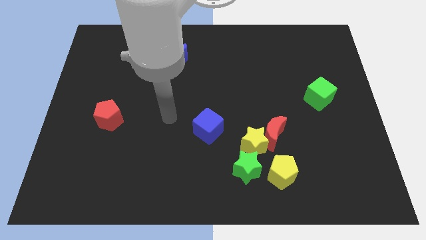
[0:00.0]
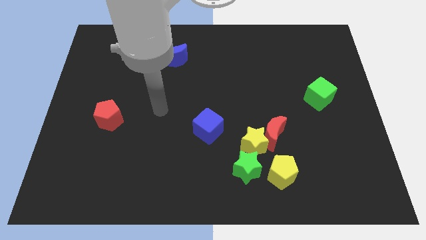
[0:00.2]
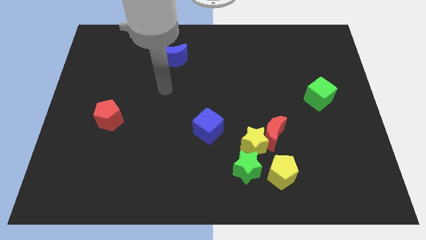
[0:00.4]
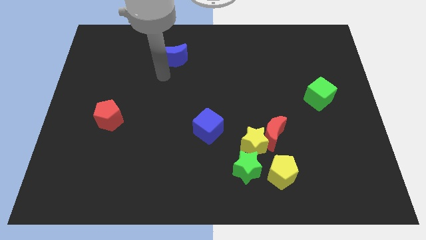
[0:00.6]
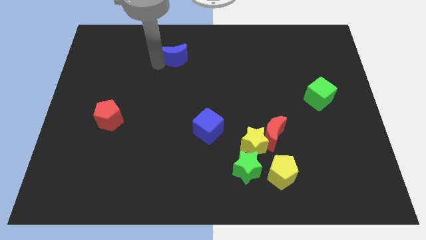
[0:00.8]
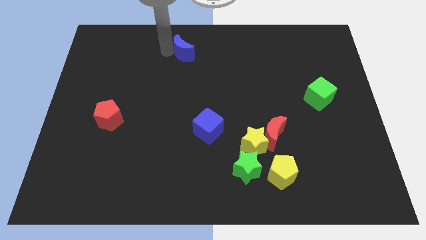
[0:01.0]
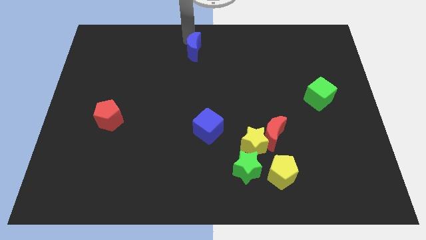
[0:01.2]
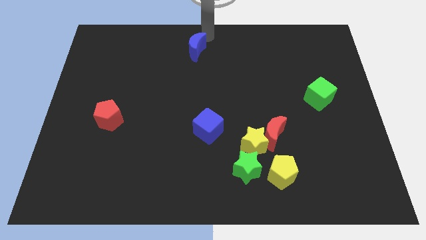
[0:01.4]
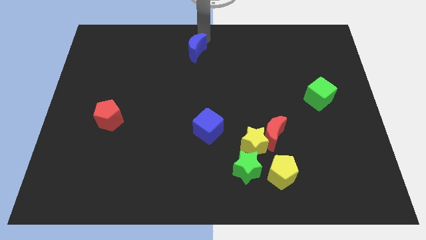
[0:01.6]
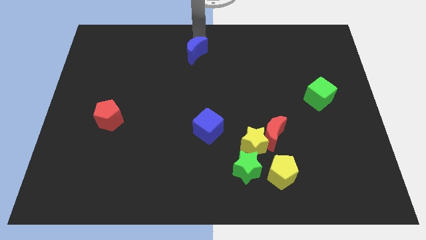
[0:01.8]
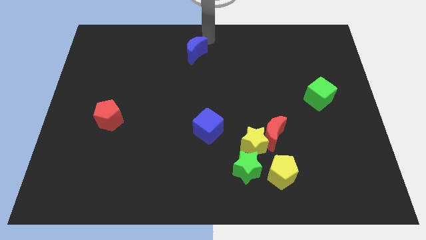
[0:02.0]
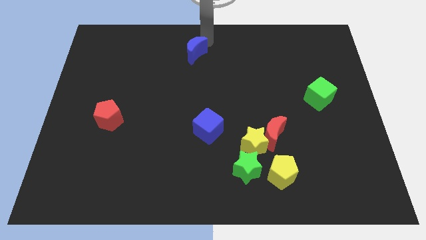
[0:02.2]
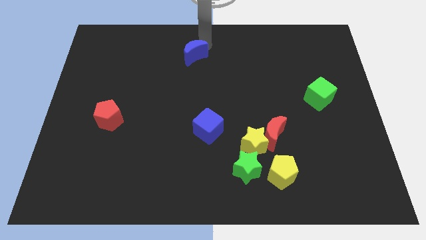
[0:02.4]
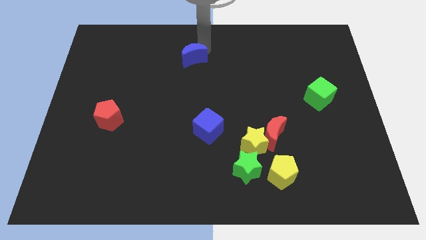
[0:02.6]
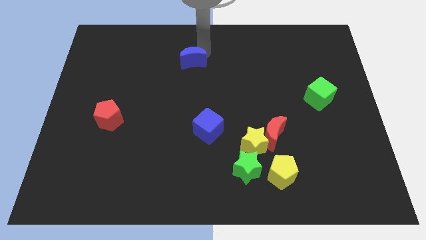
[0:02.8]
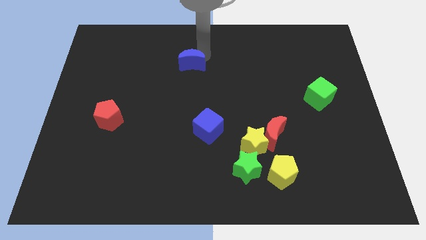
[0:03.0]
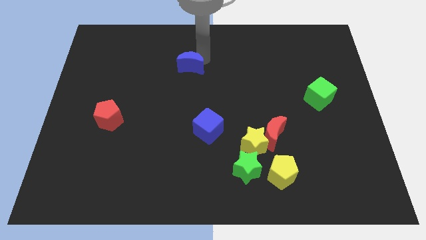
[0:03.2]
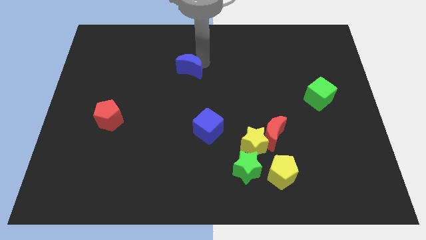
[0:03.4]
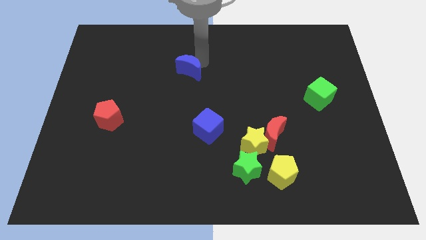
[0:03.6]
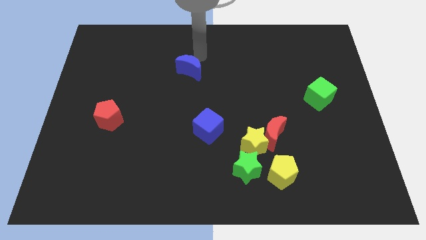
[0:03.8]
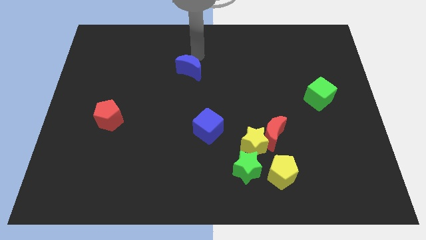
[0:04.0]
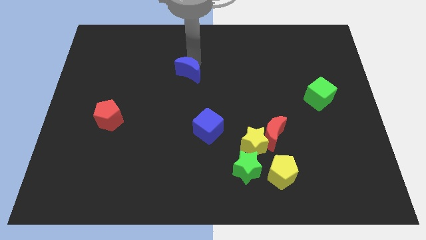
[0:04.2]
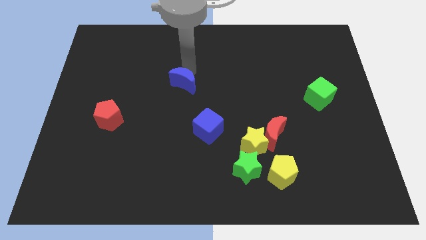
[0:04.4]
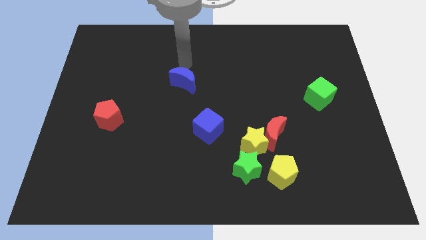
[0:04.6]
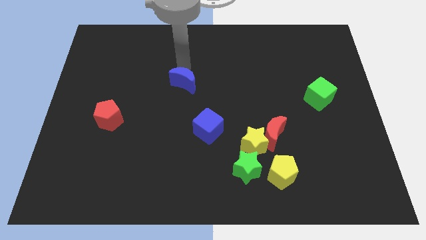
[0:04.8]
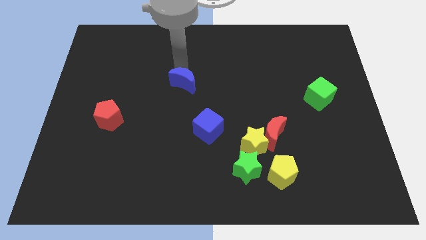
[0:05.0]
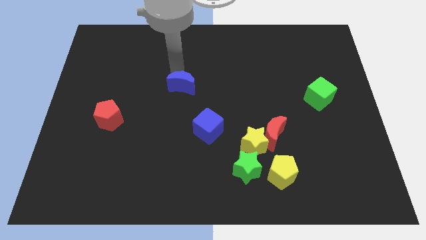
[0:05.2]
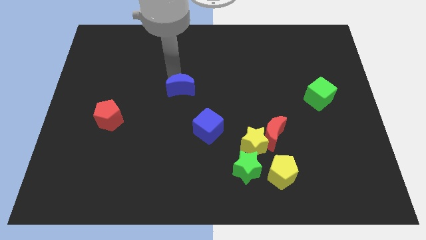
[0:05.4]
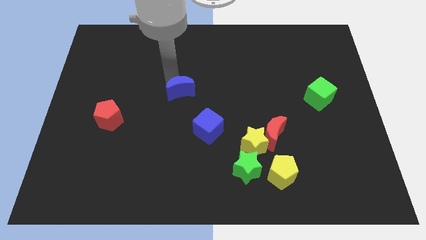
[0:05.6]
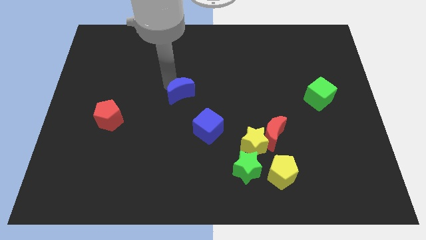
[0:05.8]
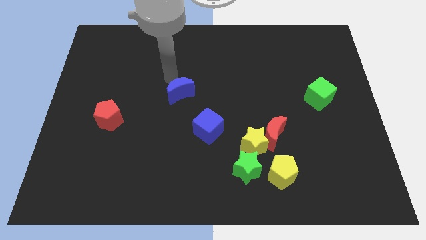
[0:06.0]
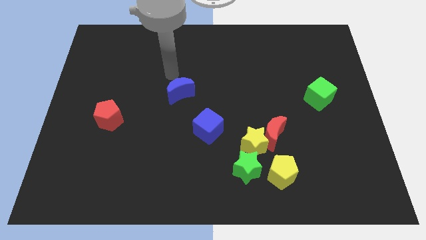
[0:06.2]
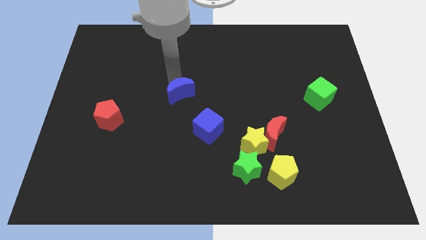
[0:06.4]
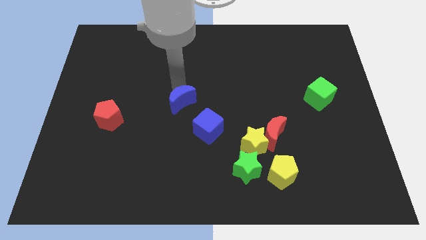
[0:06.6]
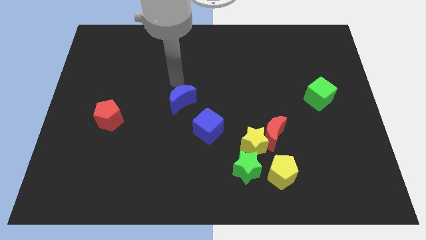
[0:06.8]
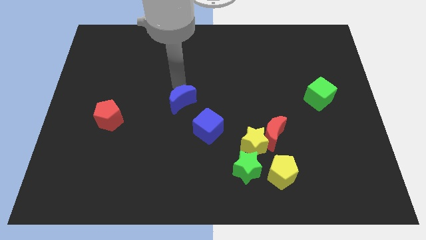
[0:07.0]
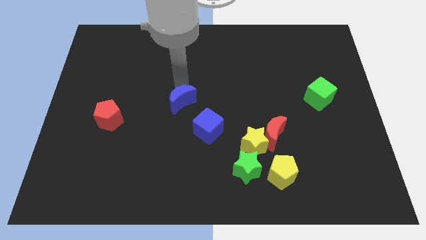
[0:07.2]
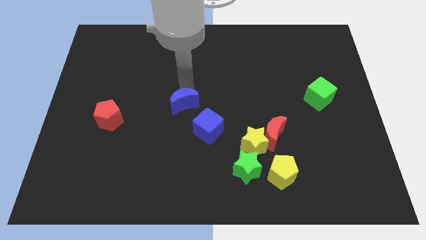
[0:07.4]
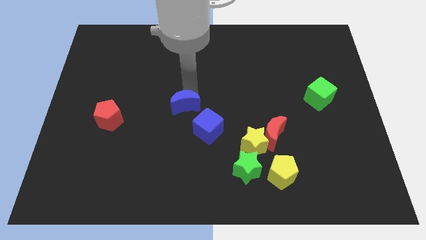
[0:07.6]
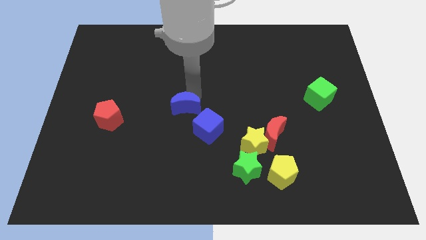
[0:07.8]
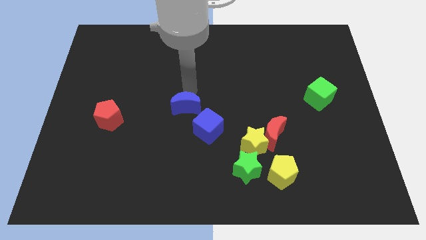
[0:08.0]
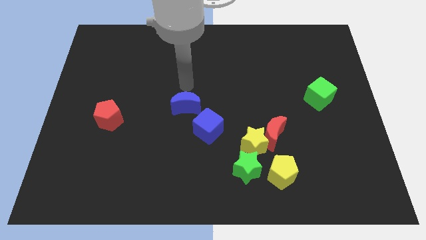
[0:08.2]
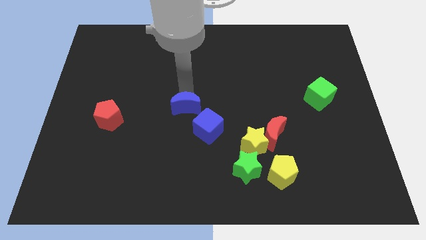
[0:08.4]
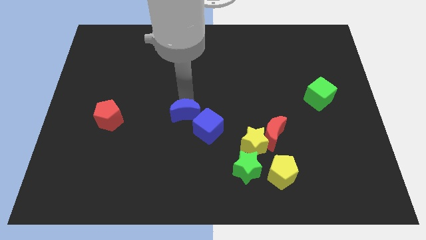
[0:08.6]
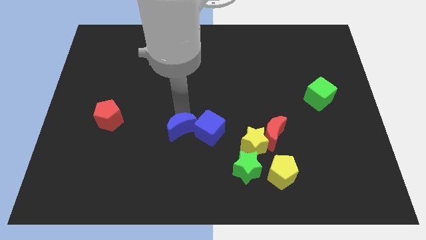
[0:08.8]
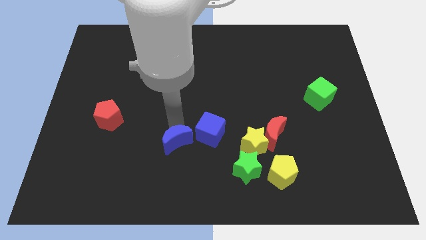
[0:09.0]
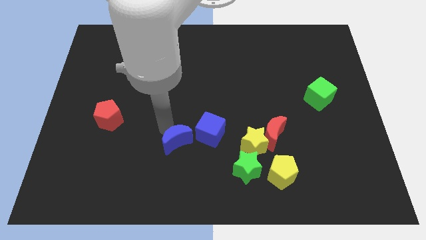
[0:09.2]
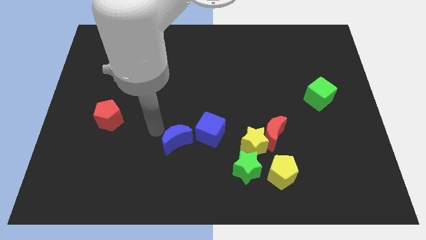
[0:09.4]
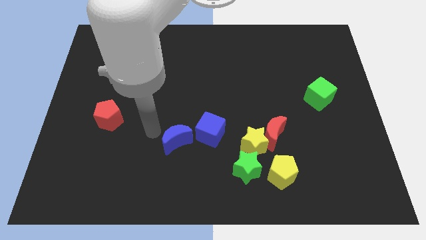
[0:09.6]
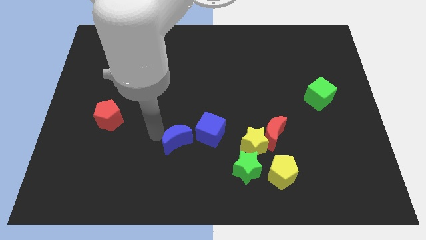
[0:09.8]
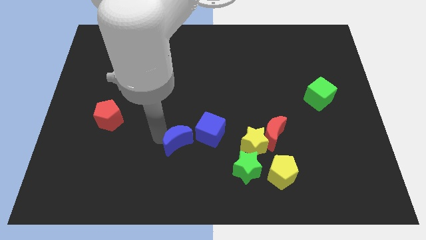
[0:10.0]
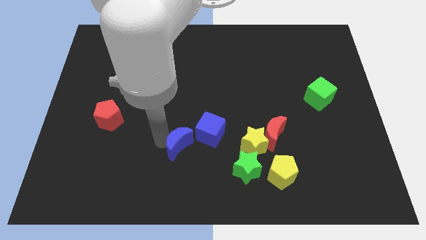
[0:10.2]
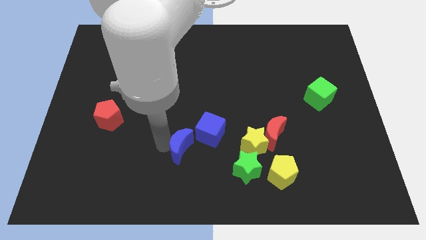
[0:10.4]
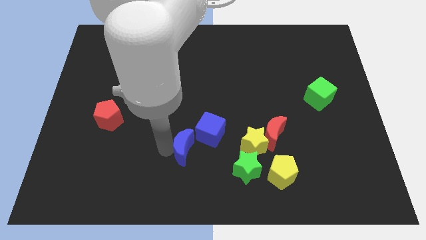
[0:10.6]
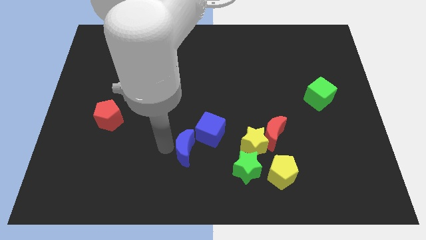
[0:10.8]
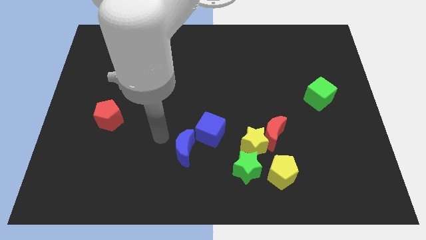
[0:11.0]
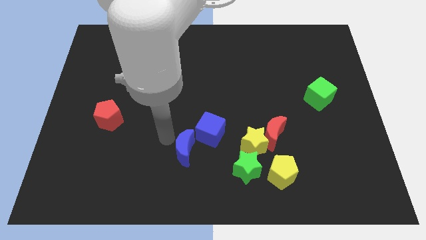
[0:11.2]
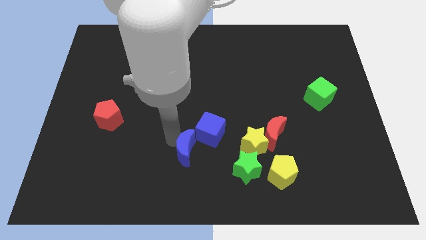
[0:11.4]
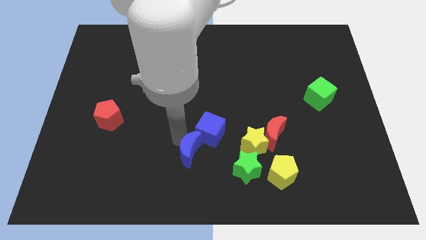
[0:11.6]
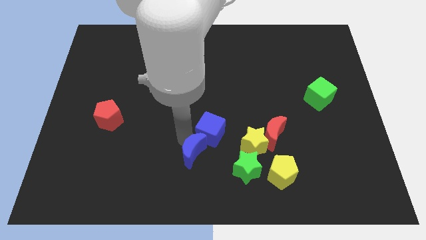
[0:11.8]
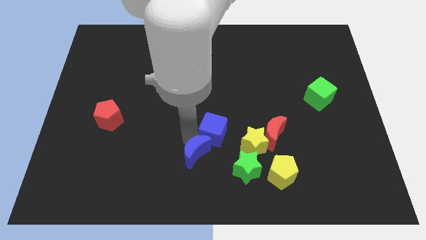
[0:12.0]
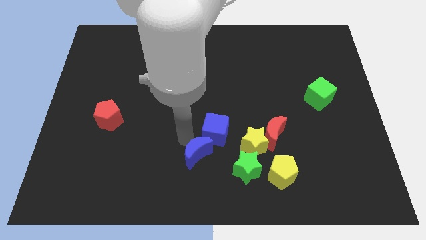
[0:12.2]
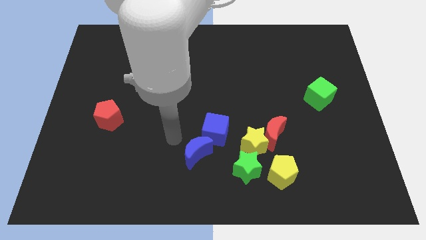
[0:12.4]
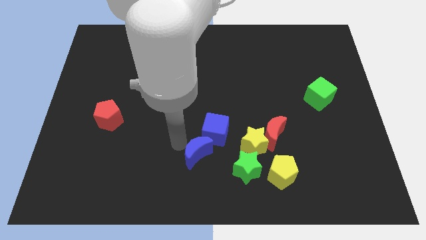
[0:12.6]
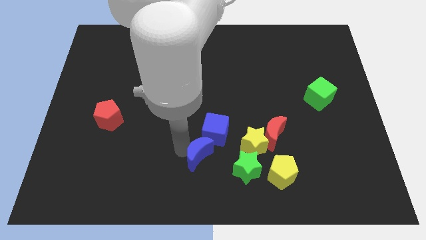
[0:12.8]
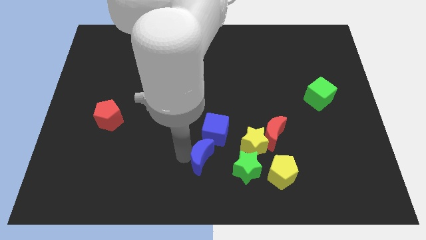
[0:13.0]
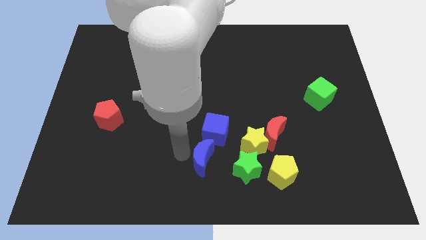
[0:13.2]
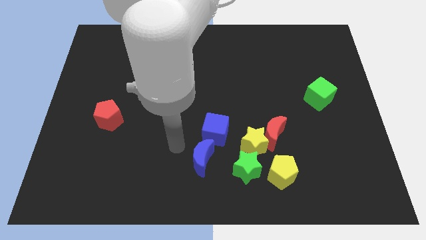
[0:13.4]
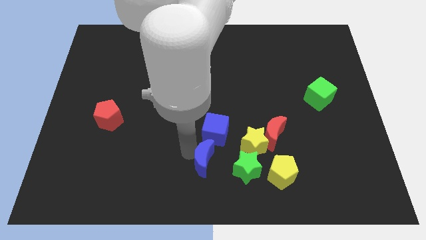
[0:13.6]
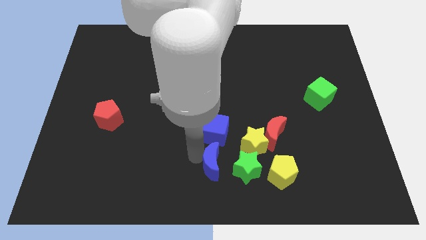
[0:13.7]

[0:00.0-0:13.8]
slide the blue moon just left of the yellow pentagon
